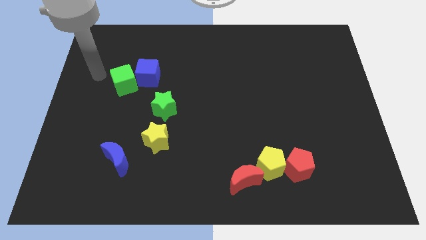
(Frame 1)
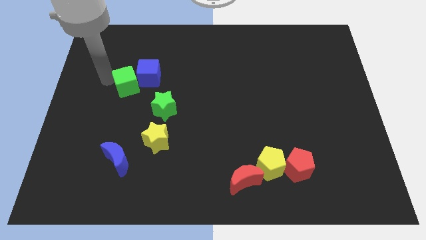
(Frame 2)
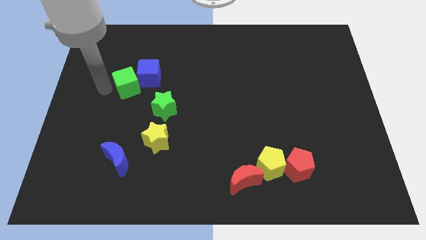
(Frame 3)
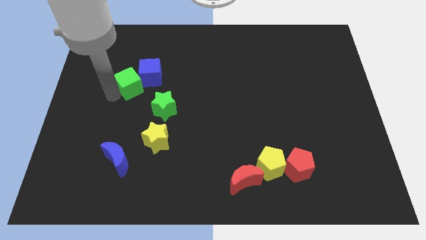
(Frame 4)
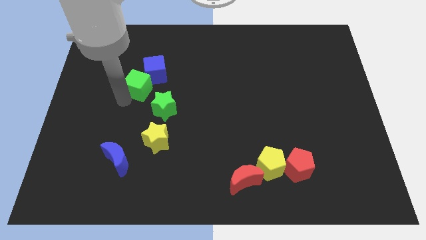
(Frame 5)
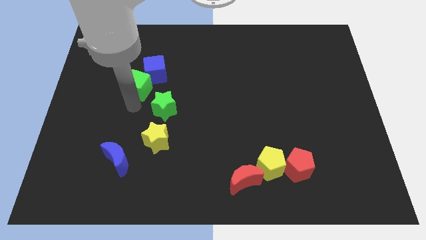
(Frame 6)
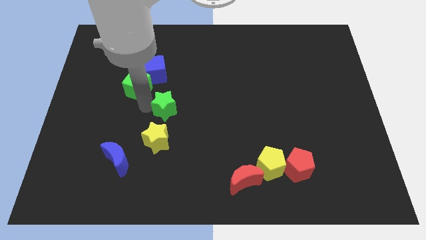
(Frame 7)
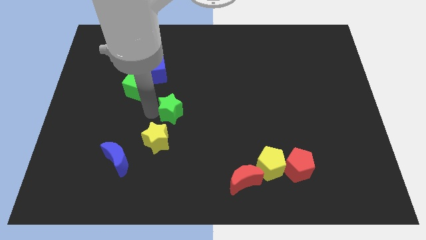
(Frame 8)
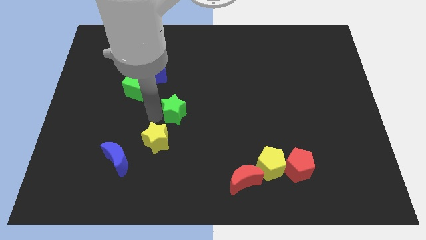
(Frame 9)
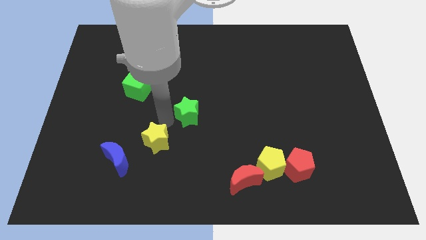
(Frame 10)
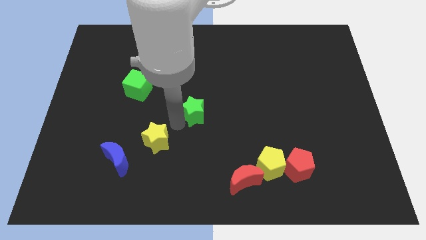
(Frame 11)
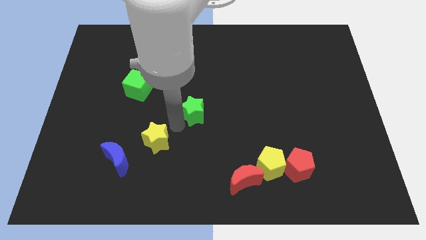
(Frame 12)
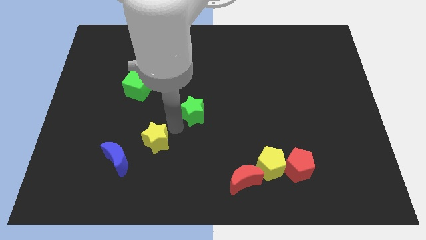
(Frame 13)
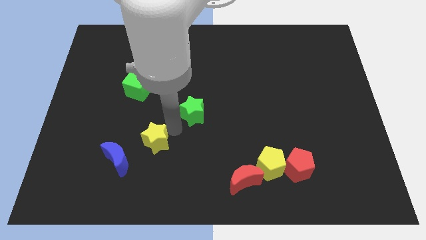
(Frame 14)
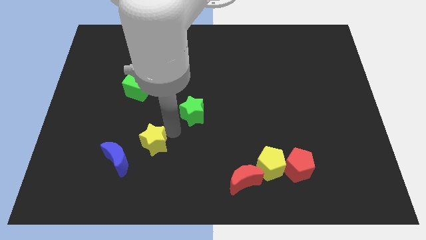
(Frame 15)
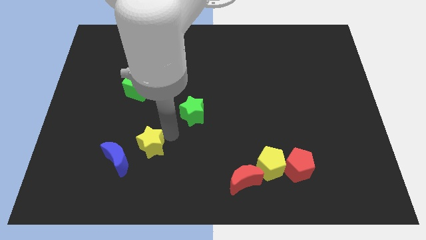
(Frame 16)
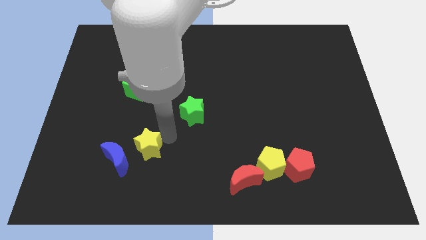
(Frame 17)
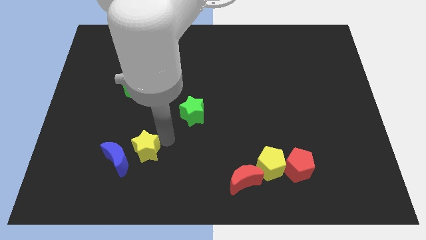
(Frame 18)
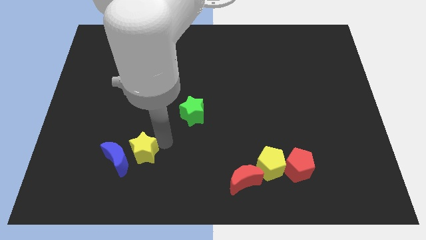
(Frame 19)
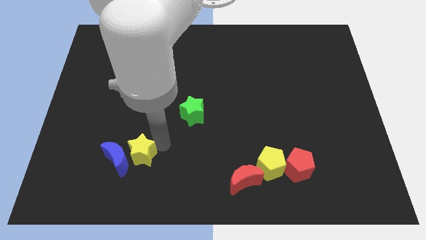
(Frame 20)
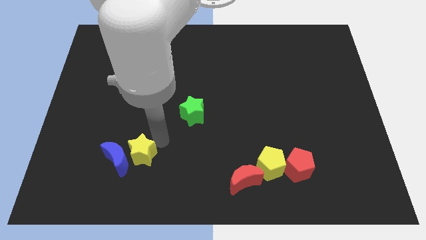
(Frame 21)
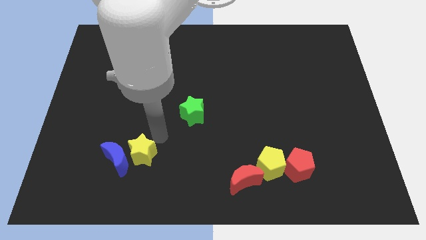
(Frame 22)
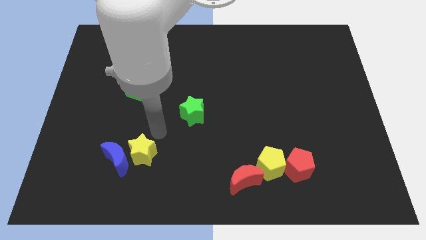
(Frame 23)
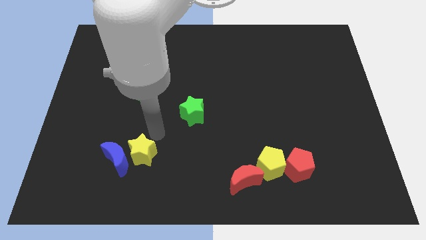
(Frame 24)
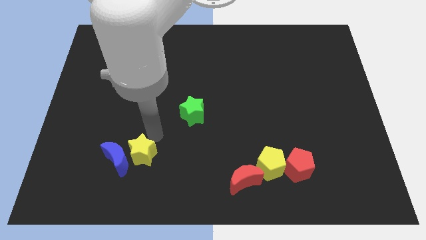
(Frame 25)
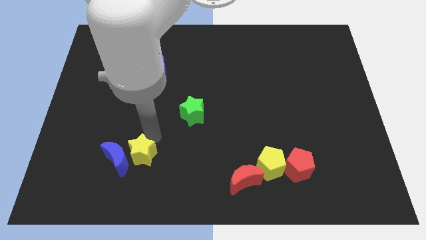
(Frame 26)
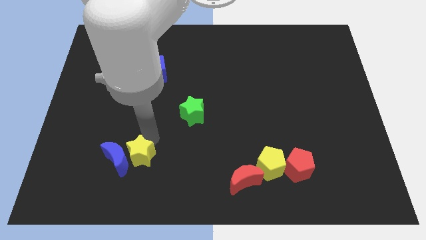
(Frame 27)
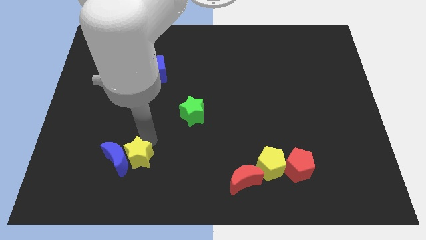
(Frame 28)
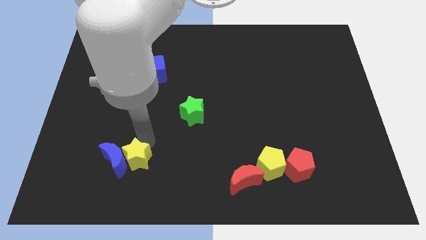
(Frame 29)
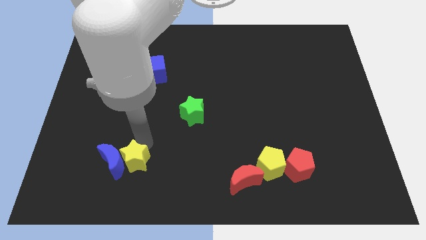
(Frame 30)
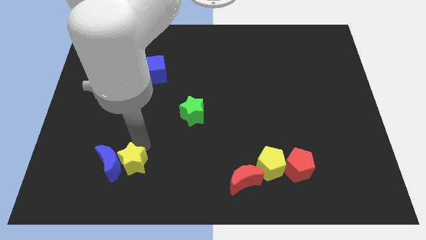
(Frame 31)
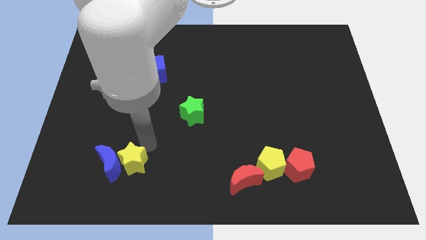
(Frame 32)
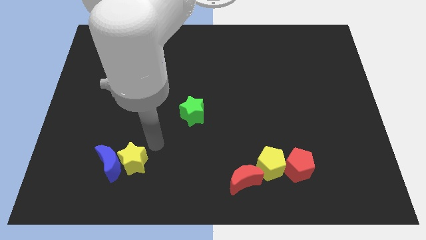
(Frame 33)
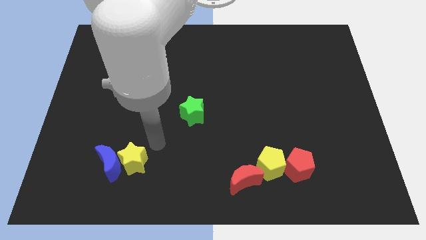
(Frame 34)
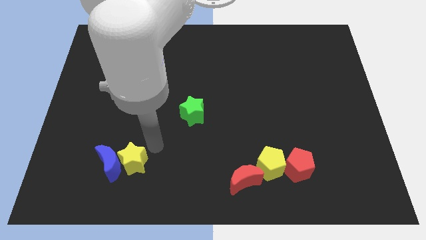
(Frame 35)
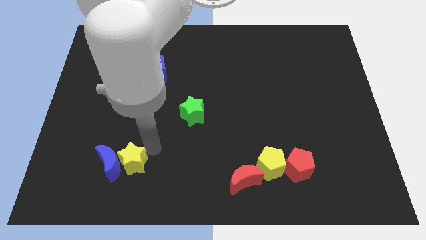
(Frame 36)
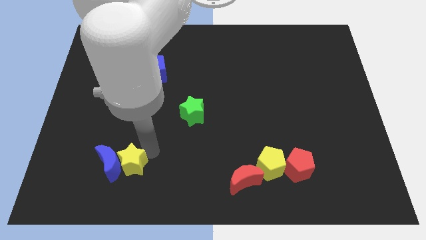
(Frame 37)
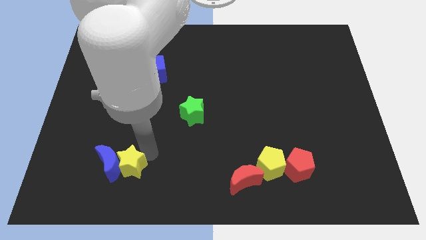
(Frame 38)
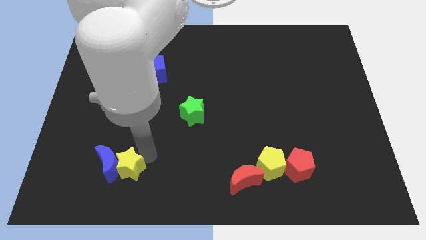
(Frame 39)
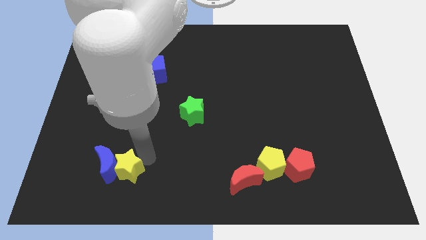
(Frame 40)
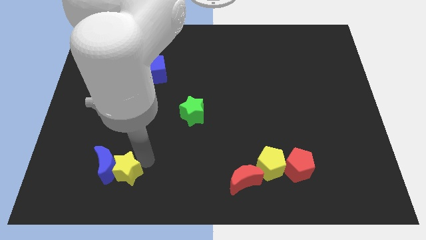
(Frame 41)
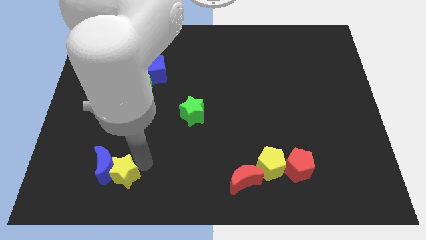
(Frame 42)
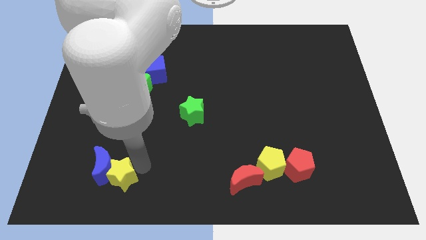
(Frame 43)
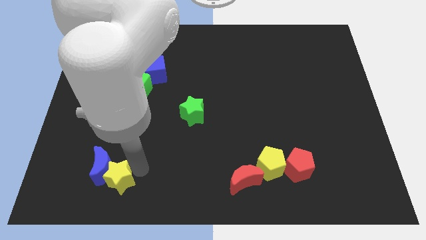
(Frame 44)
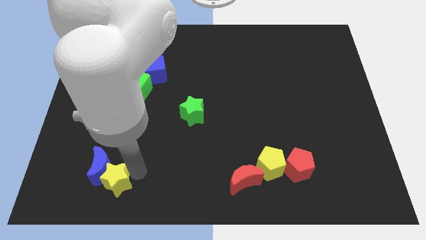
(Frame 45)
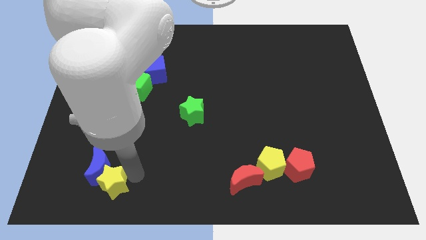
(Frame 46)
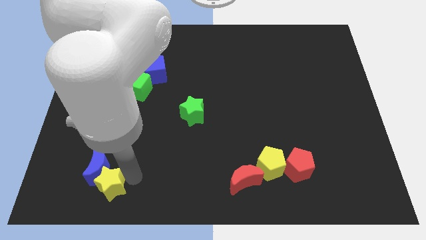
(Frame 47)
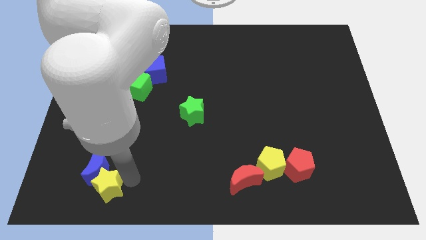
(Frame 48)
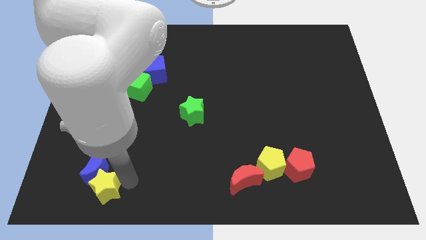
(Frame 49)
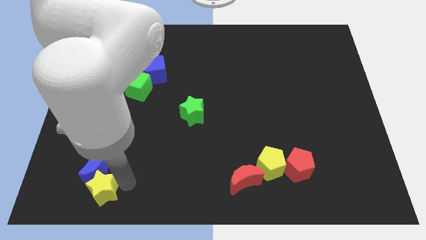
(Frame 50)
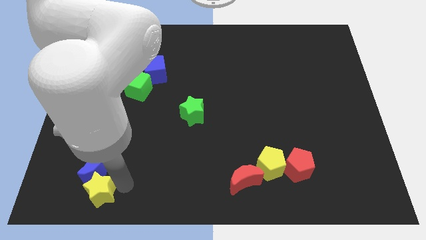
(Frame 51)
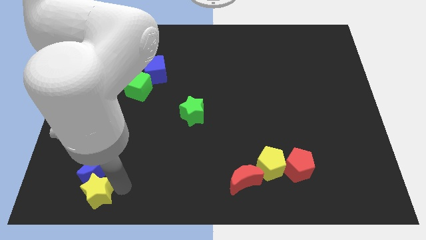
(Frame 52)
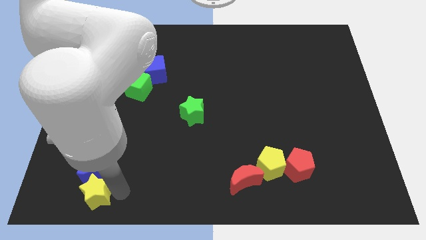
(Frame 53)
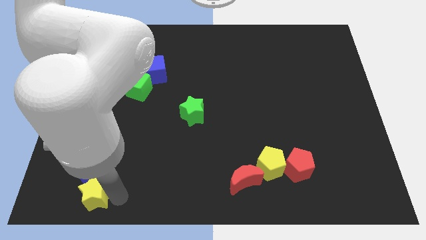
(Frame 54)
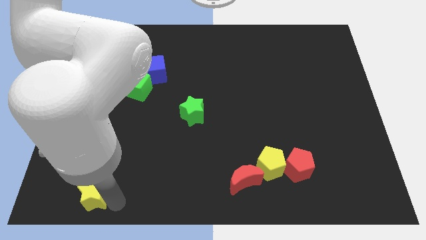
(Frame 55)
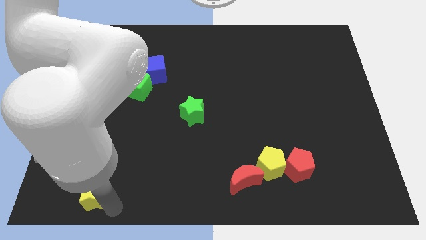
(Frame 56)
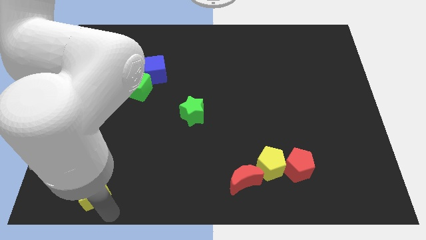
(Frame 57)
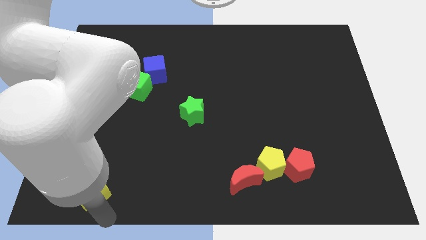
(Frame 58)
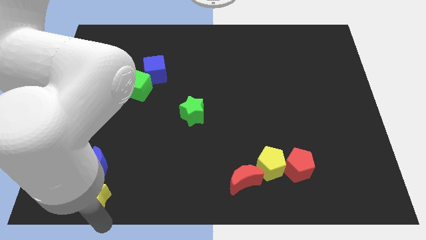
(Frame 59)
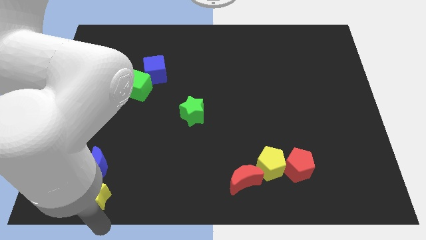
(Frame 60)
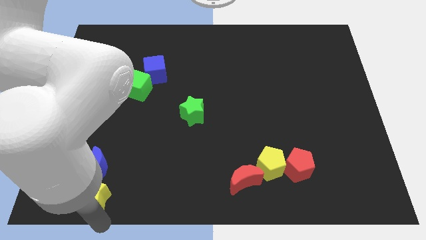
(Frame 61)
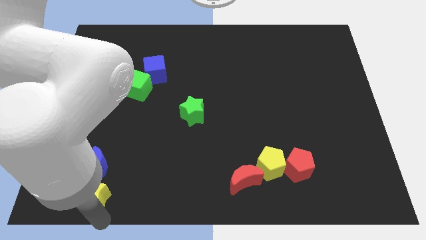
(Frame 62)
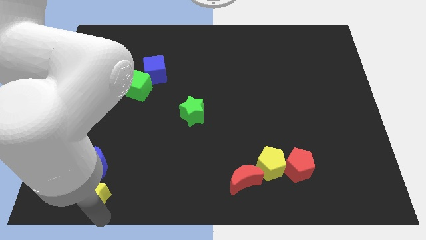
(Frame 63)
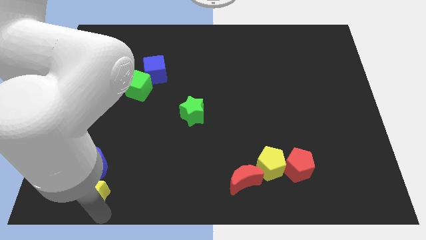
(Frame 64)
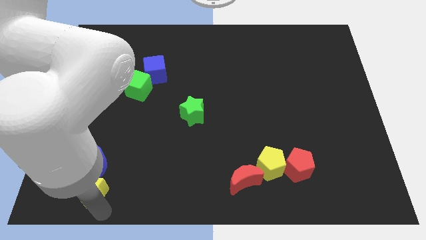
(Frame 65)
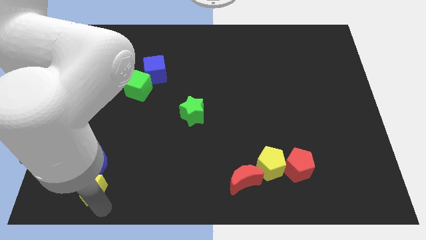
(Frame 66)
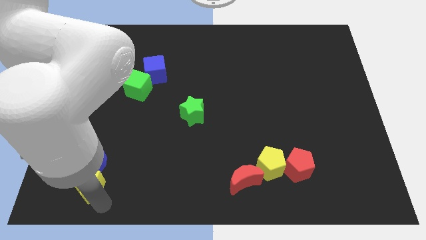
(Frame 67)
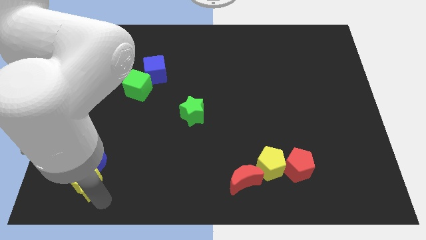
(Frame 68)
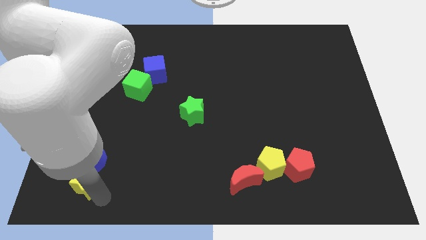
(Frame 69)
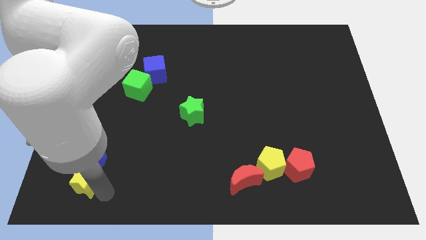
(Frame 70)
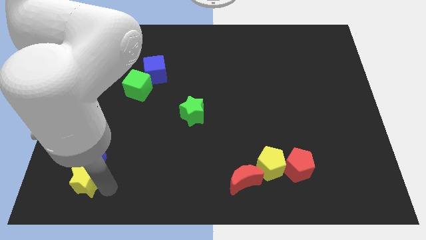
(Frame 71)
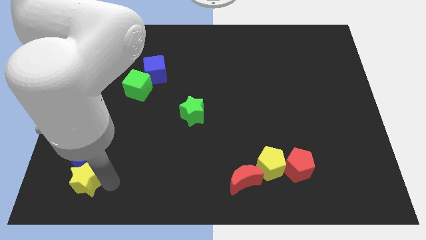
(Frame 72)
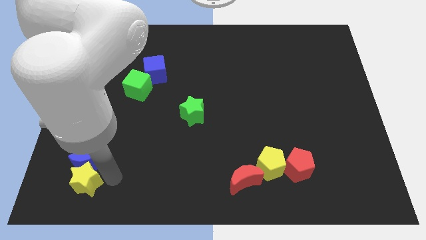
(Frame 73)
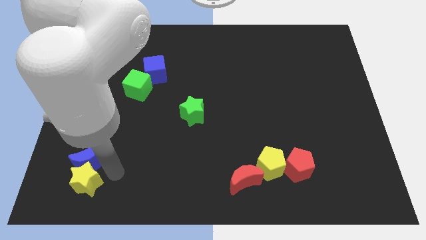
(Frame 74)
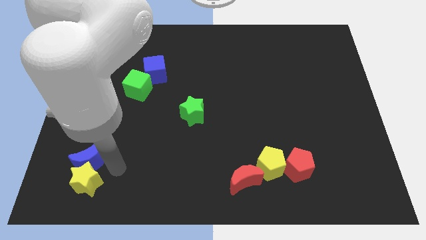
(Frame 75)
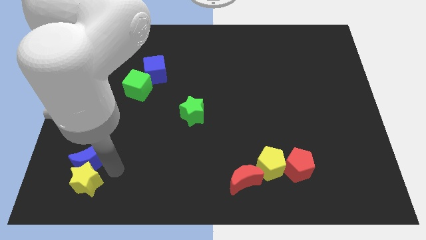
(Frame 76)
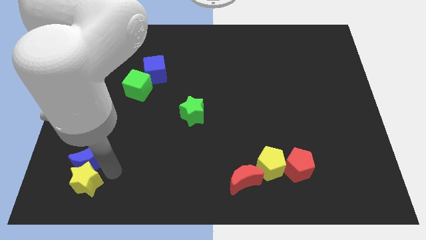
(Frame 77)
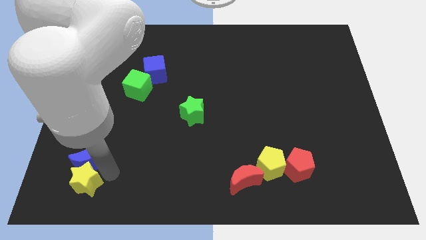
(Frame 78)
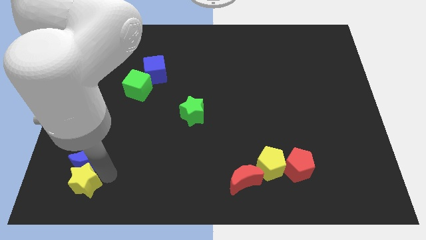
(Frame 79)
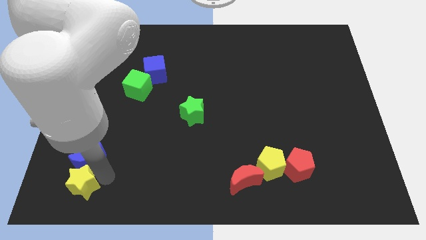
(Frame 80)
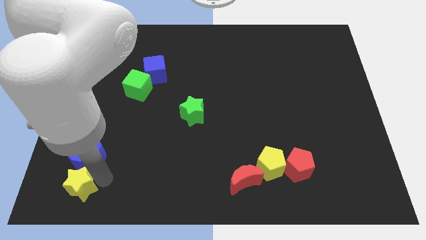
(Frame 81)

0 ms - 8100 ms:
put the yellow star to the lower left corner
